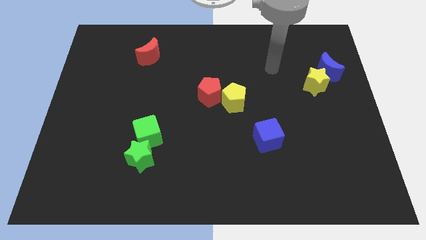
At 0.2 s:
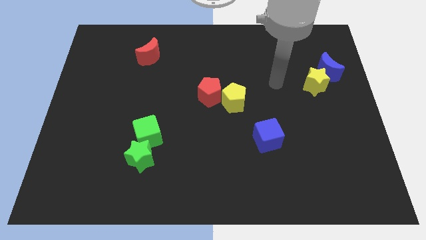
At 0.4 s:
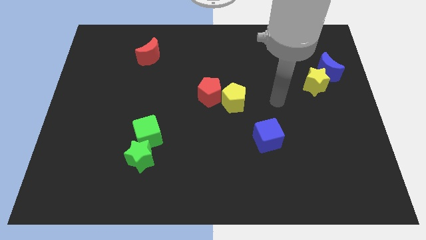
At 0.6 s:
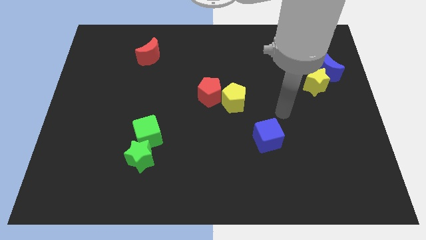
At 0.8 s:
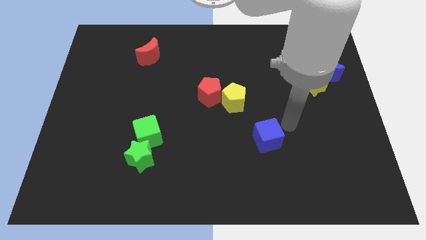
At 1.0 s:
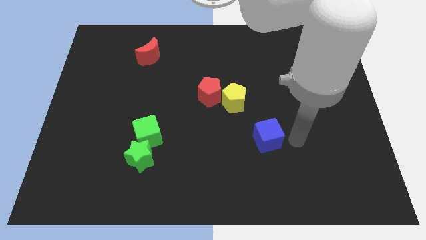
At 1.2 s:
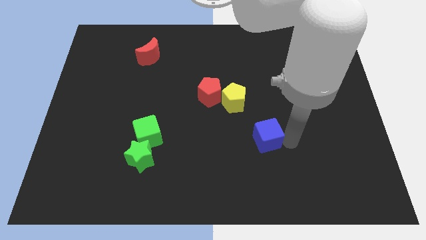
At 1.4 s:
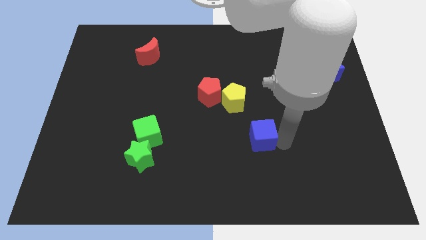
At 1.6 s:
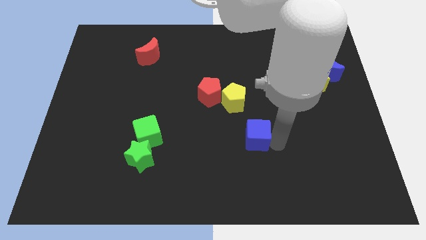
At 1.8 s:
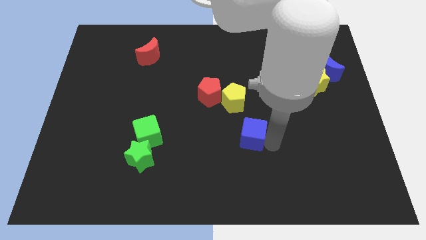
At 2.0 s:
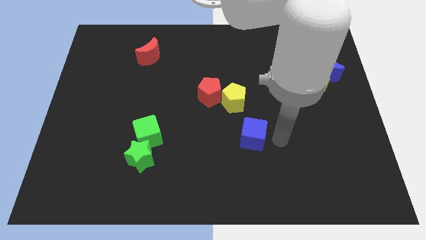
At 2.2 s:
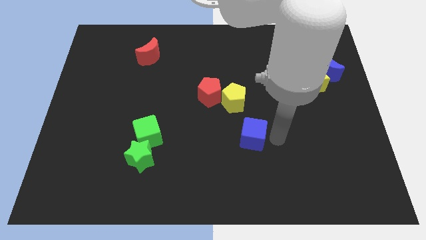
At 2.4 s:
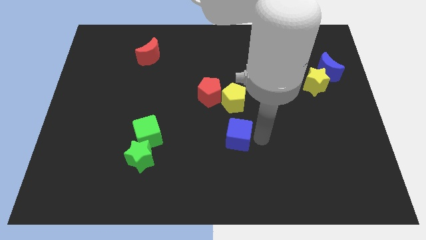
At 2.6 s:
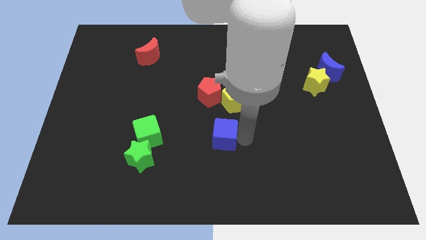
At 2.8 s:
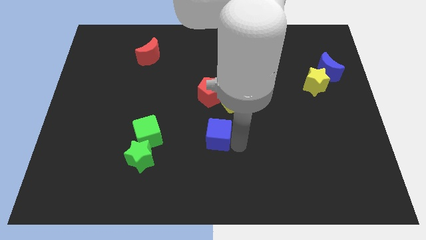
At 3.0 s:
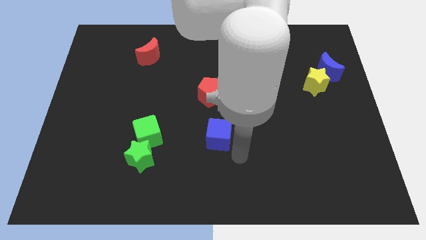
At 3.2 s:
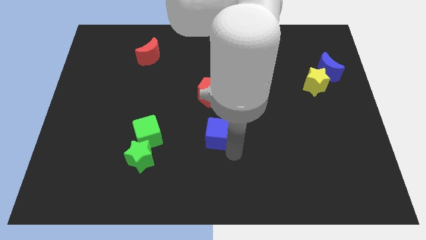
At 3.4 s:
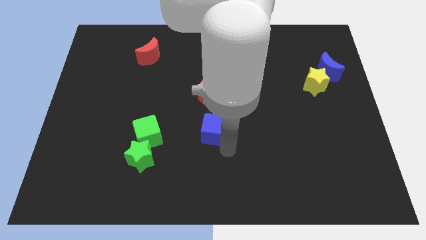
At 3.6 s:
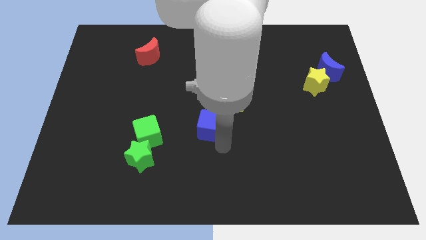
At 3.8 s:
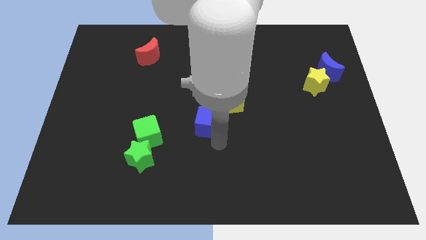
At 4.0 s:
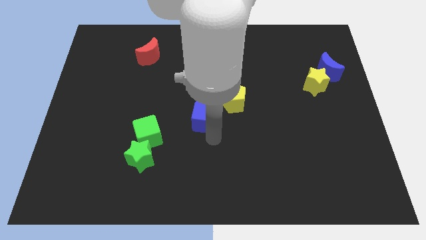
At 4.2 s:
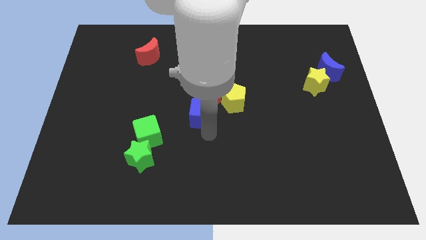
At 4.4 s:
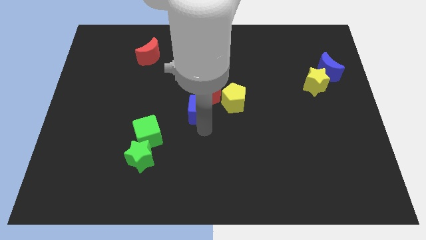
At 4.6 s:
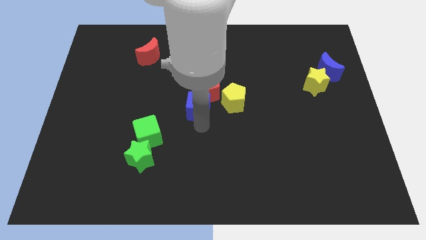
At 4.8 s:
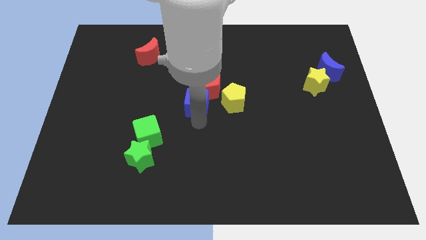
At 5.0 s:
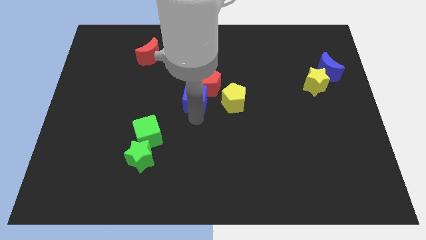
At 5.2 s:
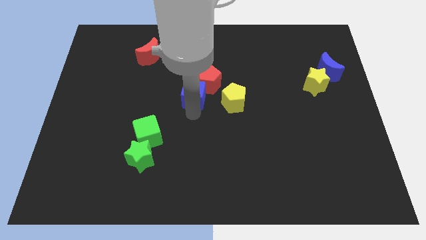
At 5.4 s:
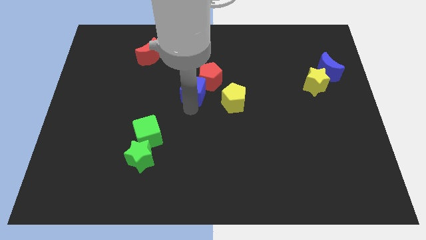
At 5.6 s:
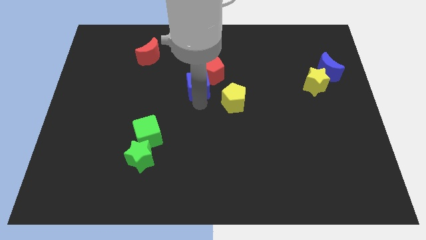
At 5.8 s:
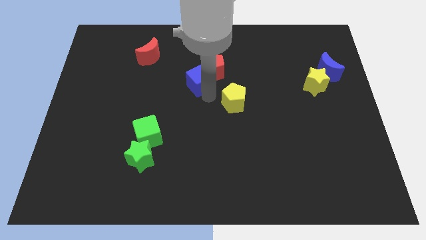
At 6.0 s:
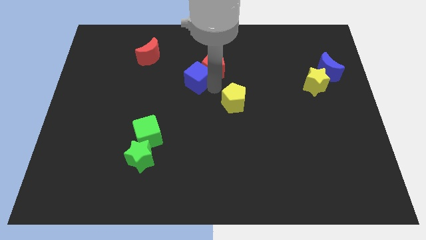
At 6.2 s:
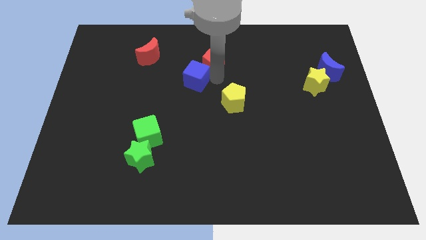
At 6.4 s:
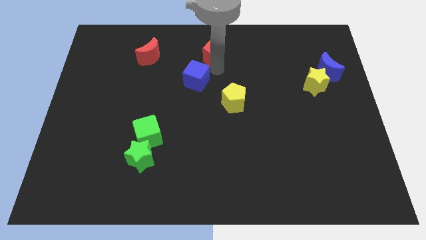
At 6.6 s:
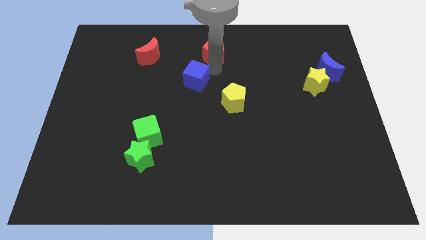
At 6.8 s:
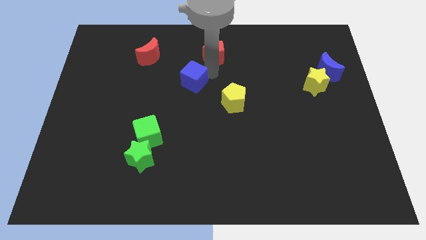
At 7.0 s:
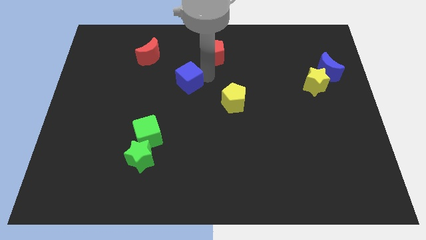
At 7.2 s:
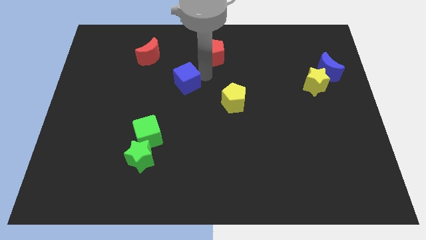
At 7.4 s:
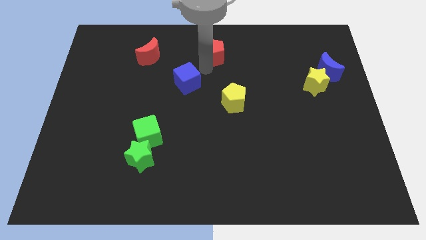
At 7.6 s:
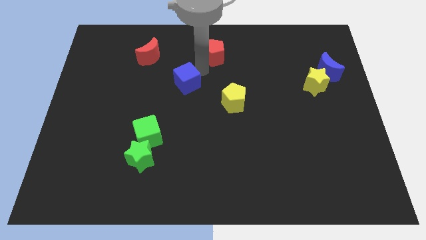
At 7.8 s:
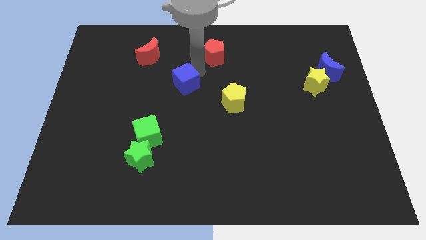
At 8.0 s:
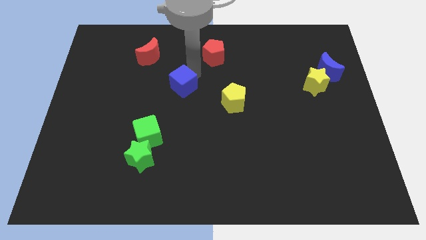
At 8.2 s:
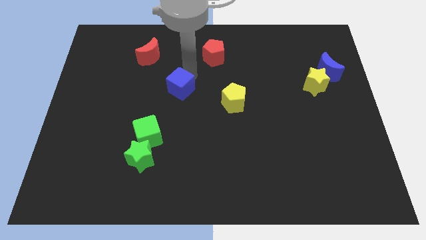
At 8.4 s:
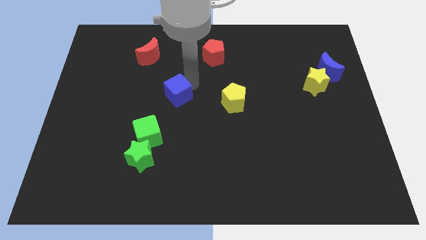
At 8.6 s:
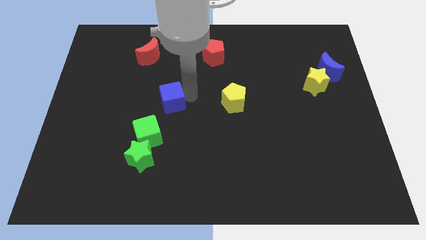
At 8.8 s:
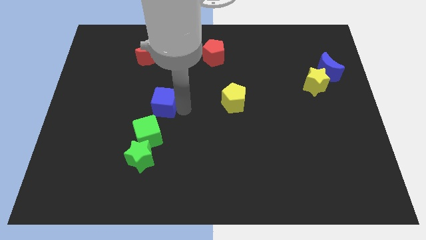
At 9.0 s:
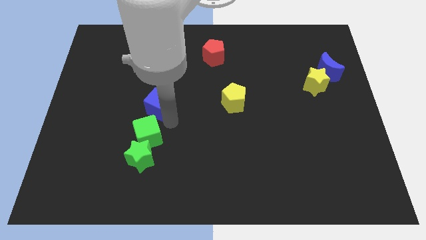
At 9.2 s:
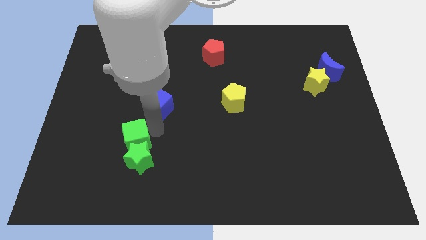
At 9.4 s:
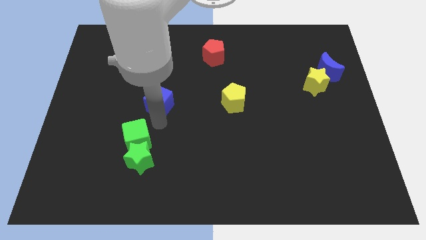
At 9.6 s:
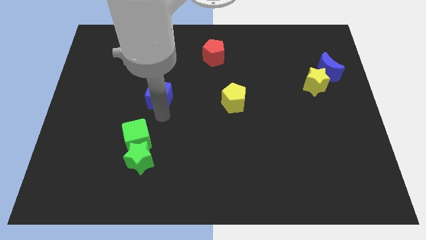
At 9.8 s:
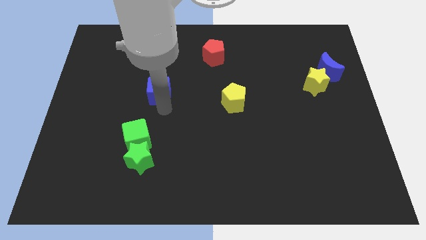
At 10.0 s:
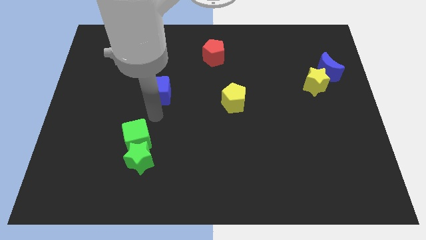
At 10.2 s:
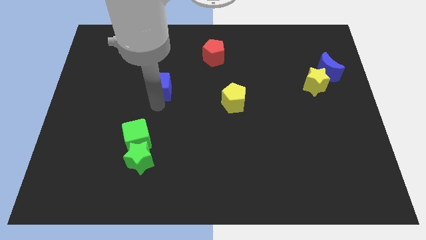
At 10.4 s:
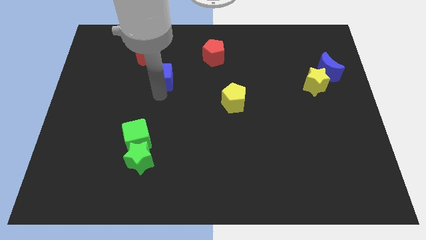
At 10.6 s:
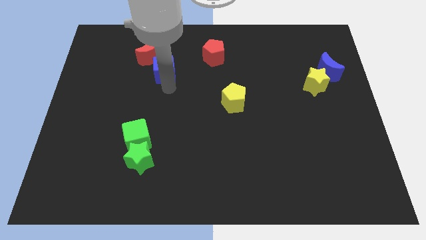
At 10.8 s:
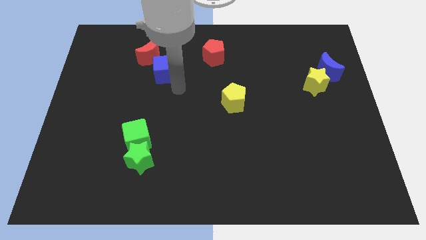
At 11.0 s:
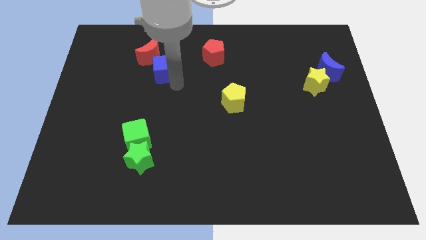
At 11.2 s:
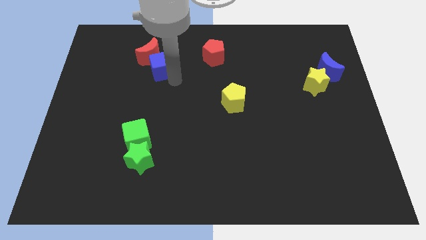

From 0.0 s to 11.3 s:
push the blue cube towards the red moon

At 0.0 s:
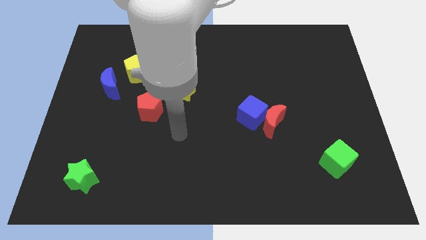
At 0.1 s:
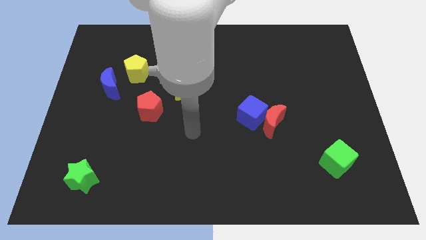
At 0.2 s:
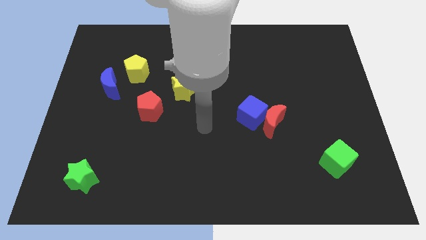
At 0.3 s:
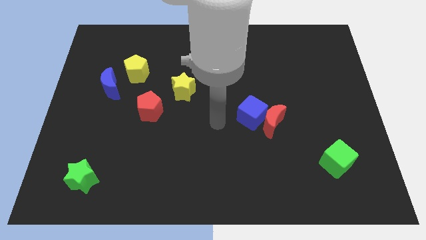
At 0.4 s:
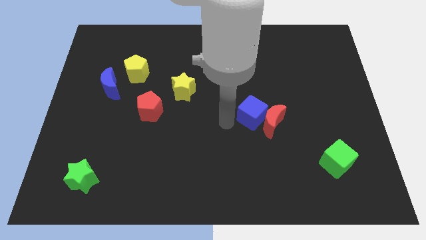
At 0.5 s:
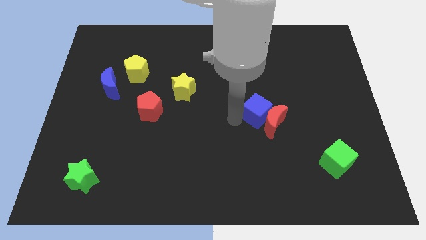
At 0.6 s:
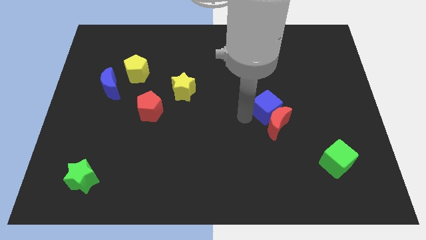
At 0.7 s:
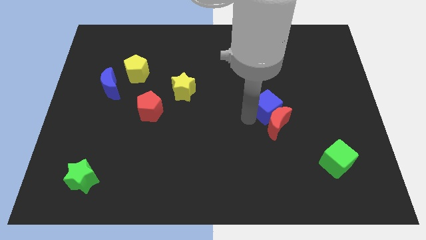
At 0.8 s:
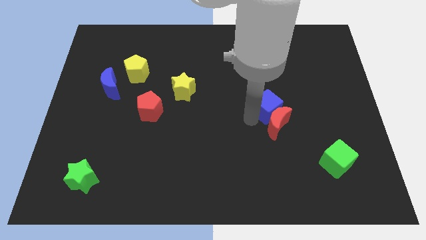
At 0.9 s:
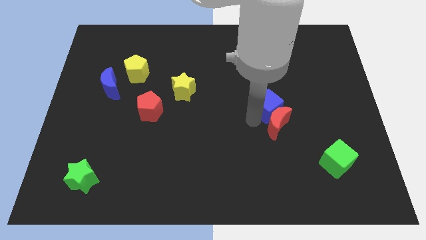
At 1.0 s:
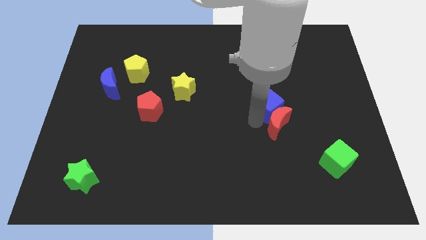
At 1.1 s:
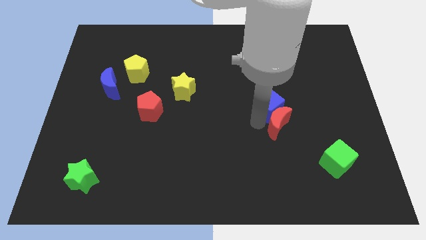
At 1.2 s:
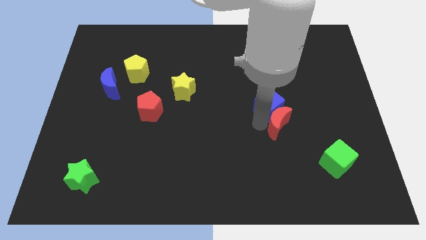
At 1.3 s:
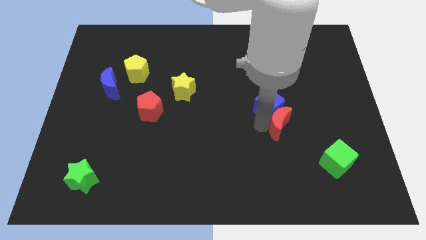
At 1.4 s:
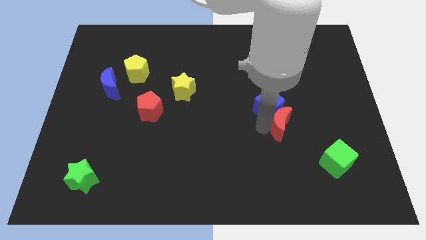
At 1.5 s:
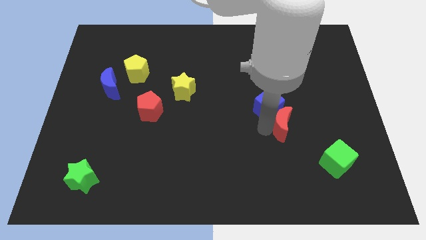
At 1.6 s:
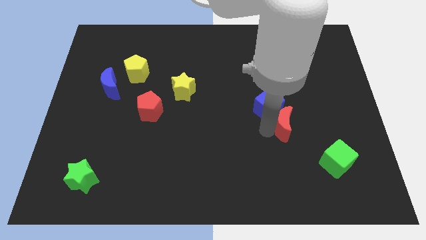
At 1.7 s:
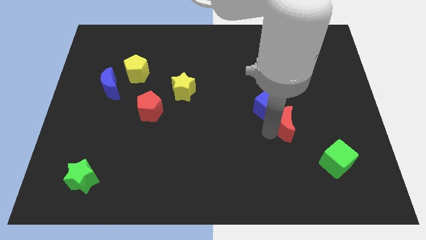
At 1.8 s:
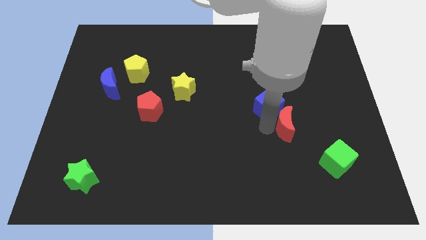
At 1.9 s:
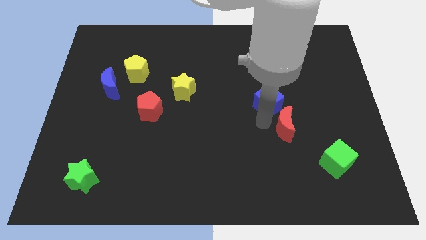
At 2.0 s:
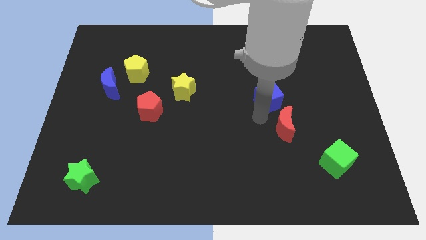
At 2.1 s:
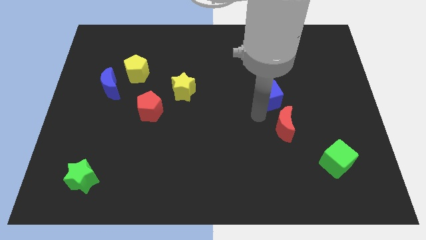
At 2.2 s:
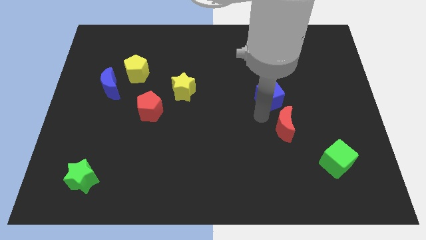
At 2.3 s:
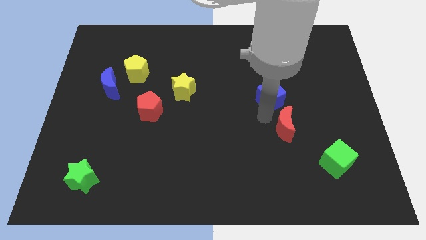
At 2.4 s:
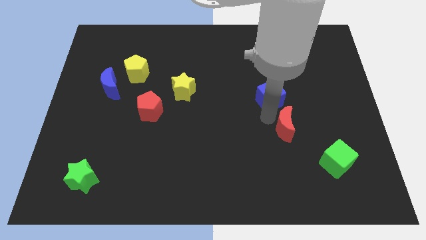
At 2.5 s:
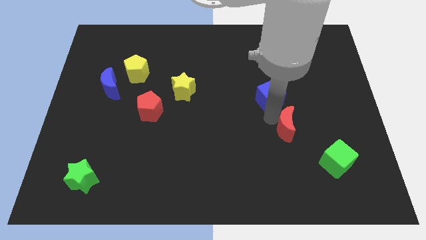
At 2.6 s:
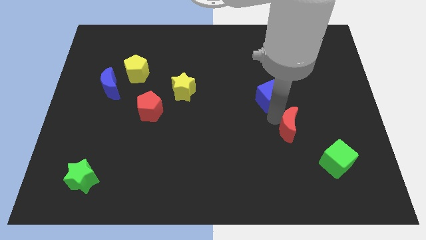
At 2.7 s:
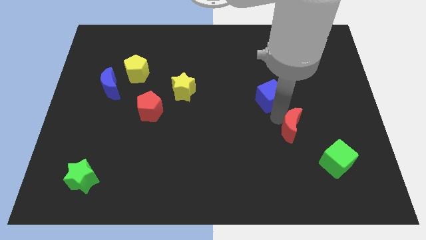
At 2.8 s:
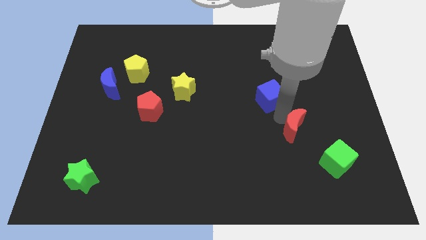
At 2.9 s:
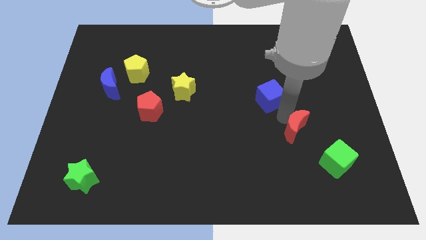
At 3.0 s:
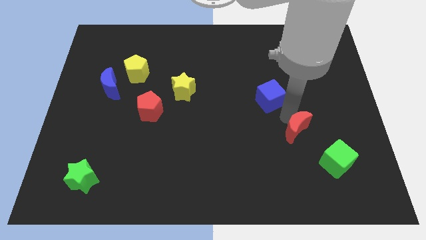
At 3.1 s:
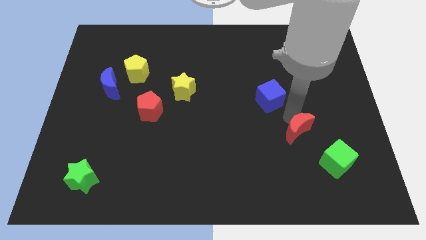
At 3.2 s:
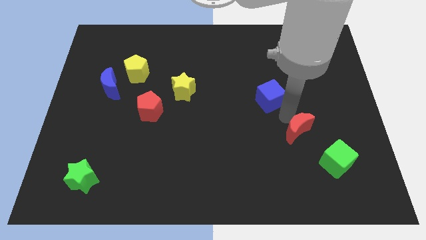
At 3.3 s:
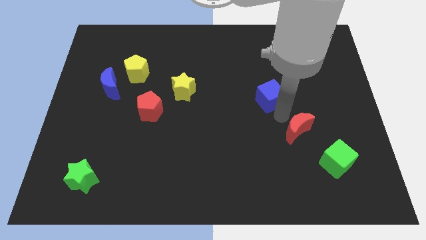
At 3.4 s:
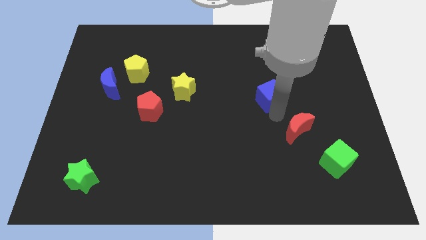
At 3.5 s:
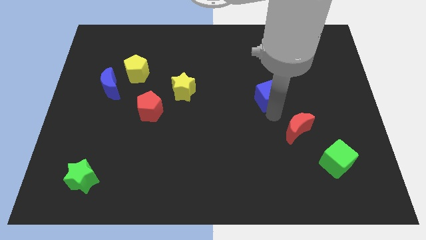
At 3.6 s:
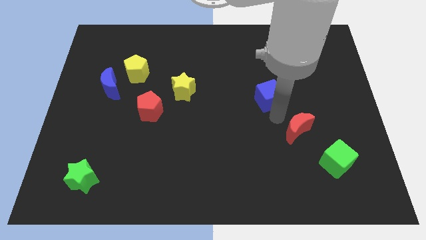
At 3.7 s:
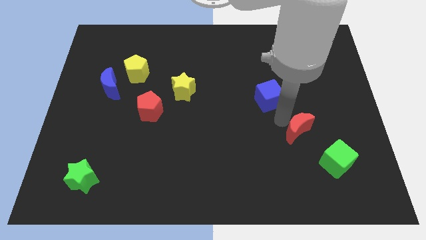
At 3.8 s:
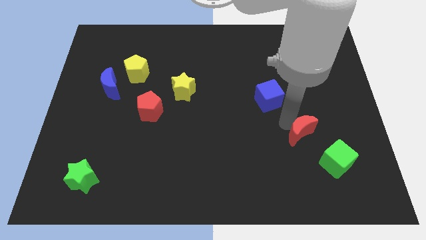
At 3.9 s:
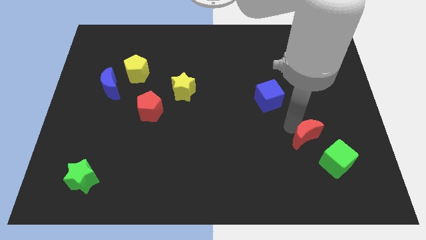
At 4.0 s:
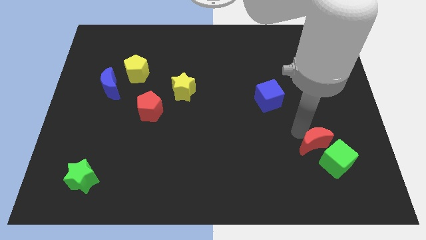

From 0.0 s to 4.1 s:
slide the red moon close to the green cube
